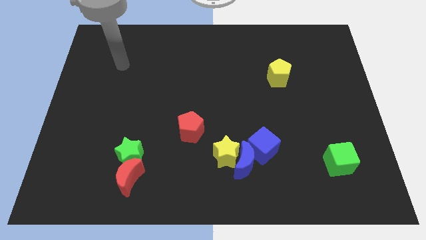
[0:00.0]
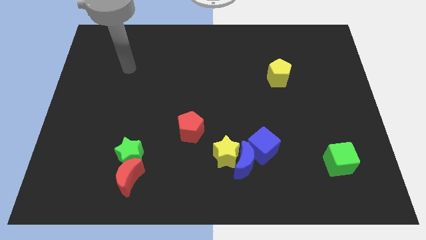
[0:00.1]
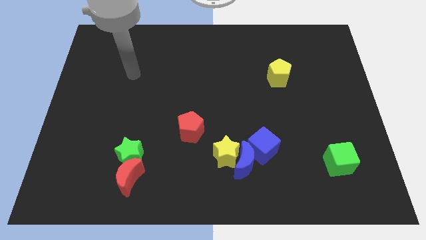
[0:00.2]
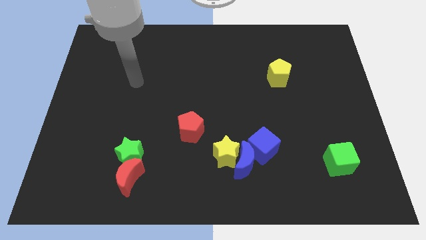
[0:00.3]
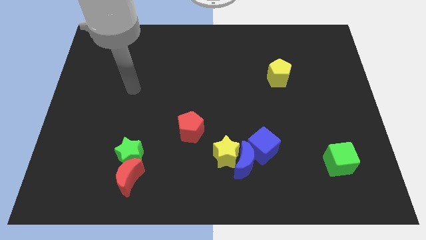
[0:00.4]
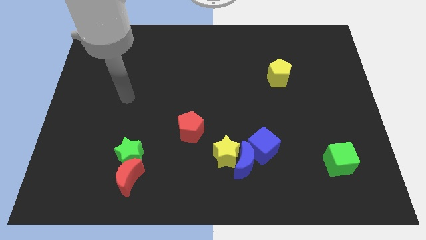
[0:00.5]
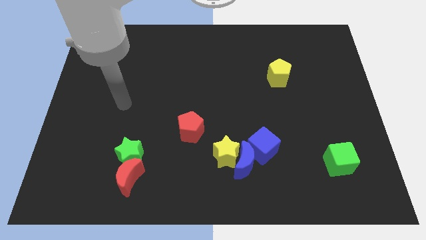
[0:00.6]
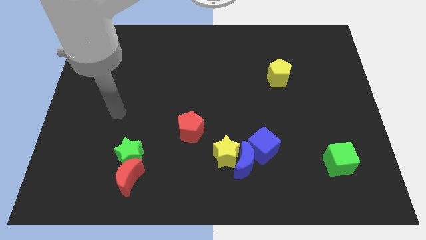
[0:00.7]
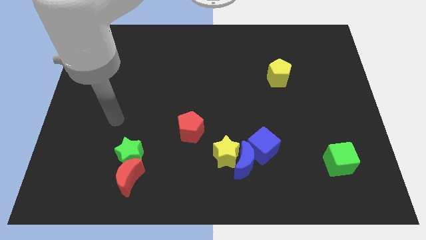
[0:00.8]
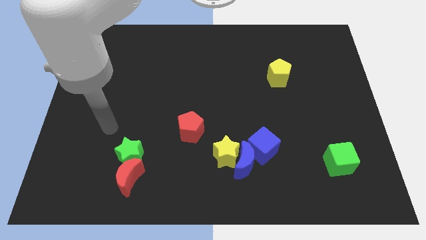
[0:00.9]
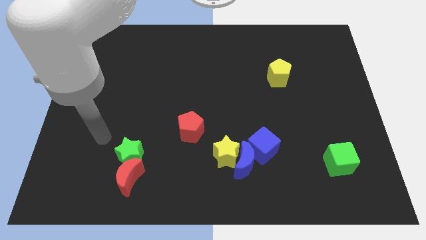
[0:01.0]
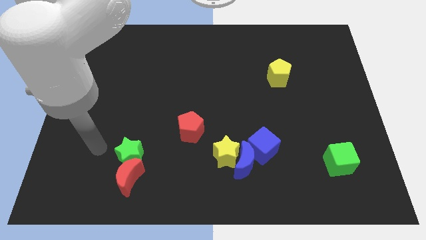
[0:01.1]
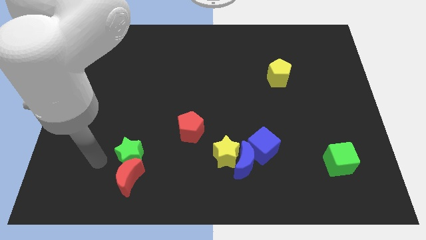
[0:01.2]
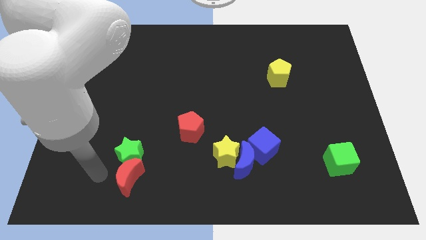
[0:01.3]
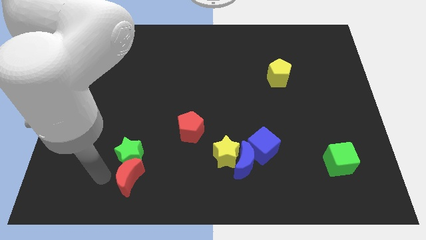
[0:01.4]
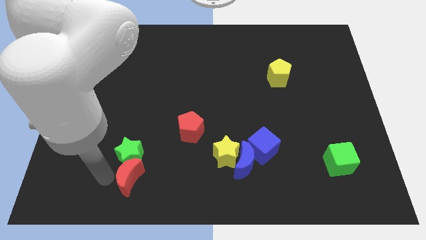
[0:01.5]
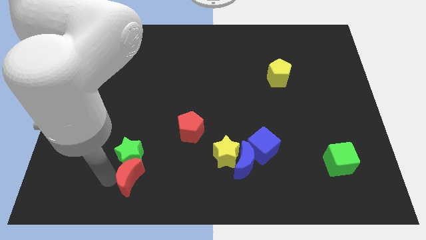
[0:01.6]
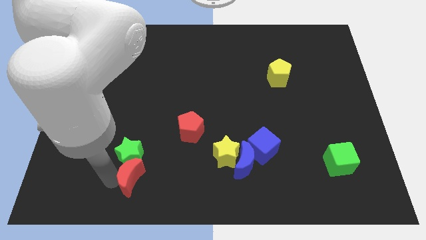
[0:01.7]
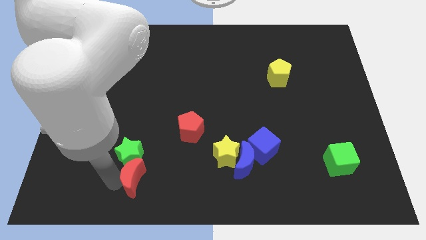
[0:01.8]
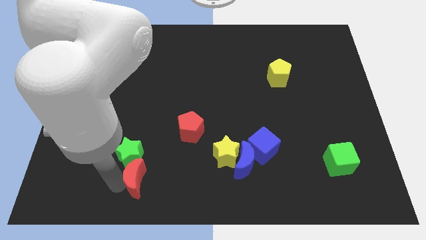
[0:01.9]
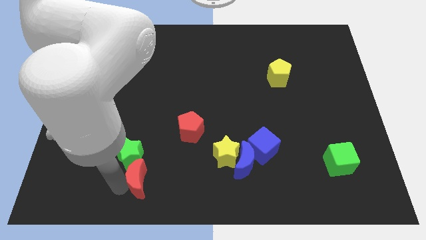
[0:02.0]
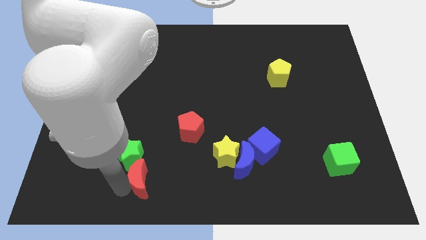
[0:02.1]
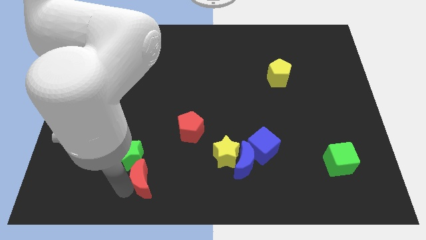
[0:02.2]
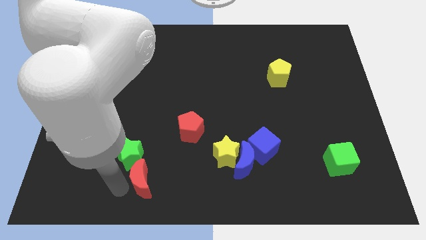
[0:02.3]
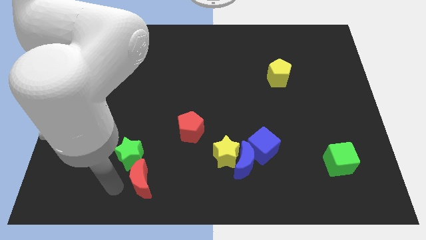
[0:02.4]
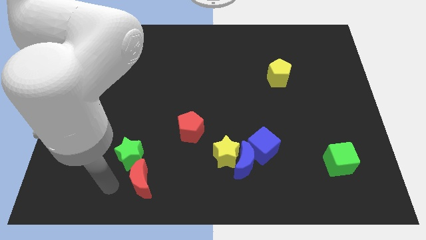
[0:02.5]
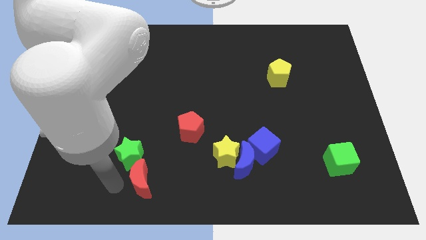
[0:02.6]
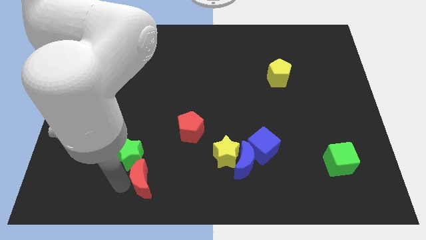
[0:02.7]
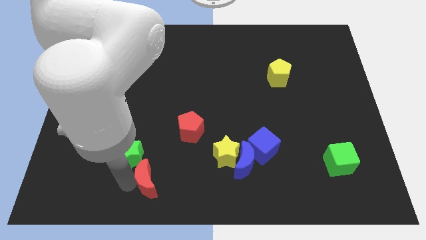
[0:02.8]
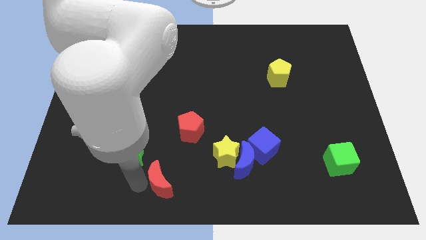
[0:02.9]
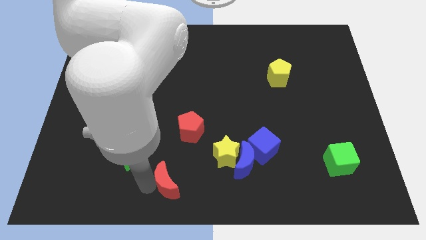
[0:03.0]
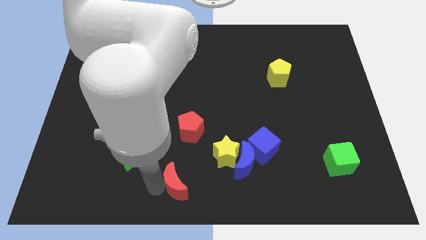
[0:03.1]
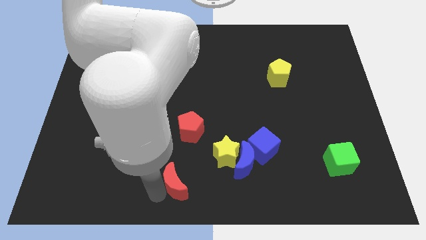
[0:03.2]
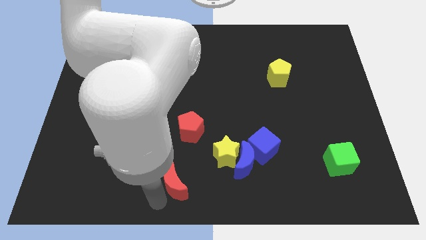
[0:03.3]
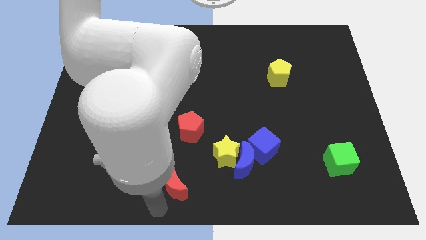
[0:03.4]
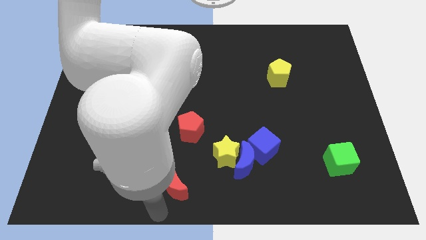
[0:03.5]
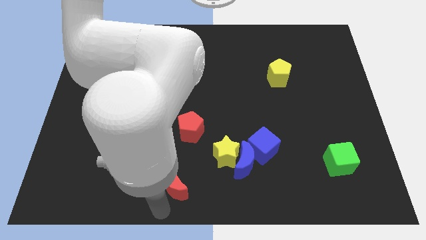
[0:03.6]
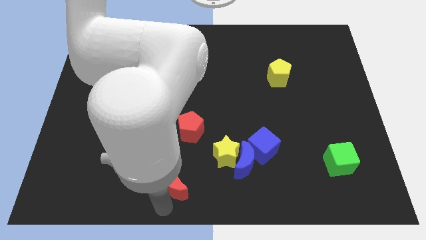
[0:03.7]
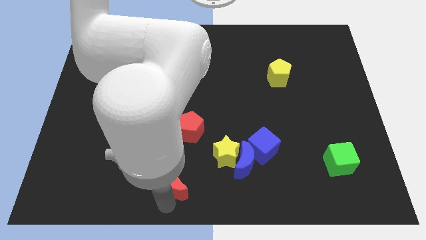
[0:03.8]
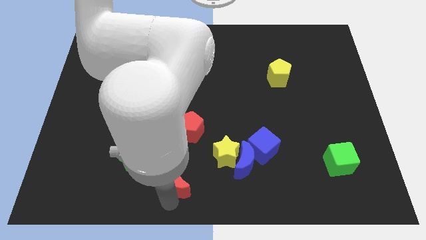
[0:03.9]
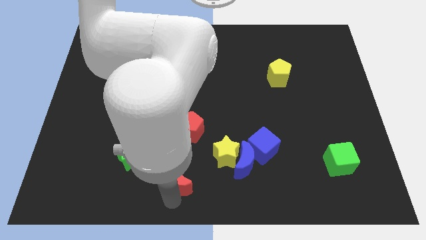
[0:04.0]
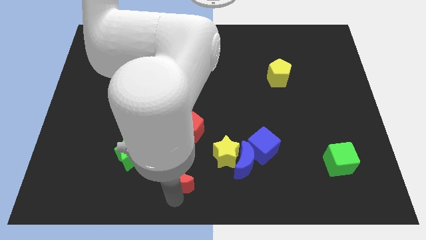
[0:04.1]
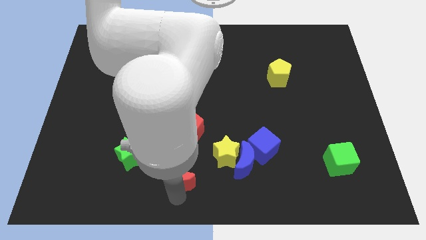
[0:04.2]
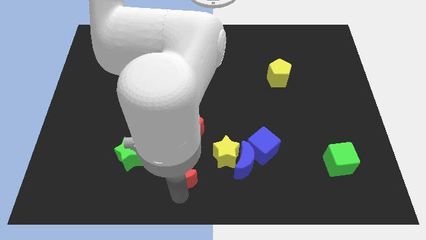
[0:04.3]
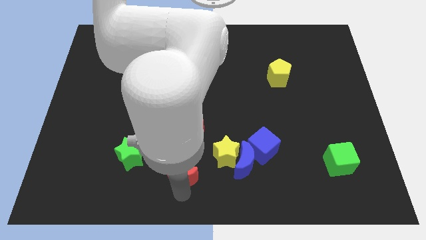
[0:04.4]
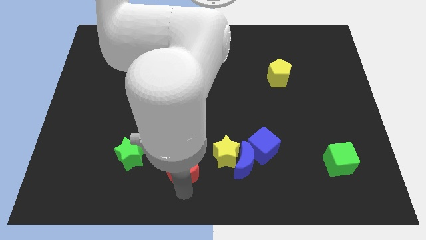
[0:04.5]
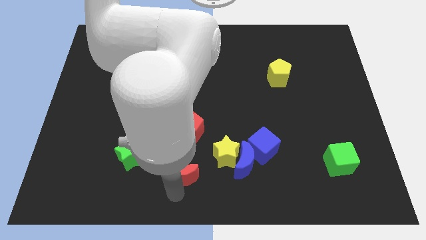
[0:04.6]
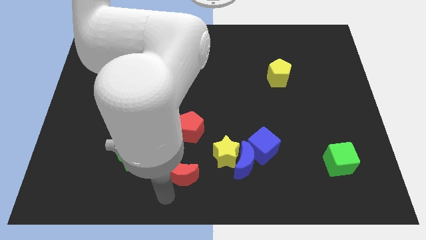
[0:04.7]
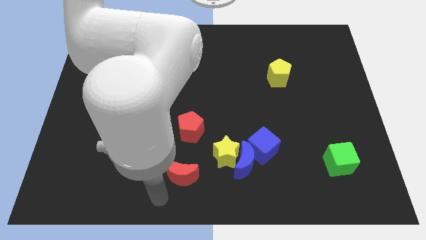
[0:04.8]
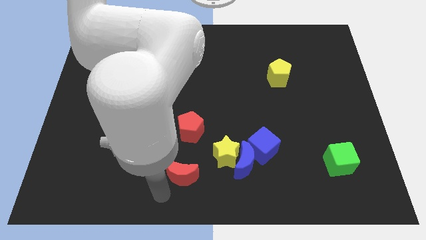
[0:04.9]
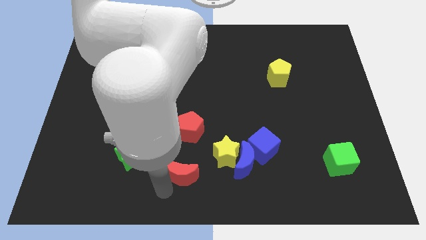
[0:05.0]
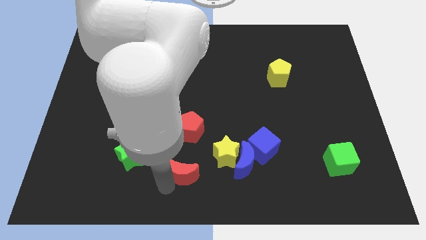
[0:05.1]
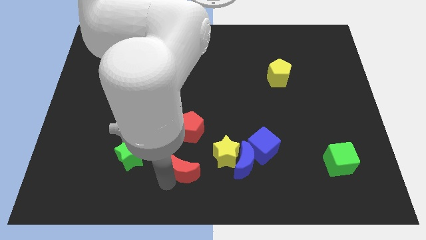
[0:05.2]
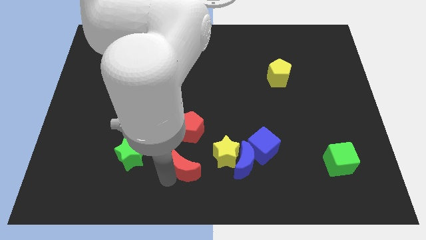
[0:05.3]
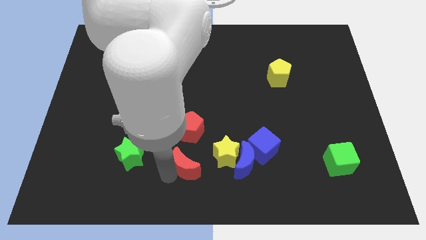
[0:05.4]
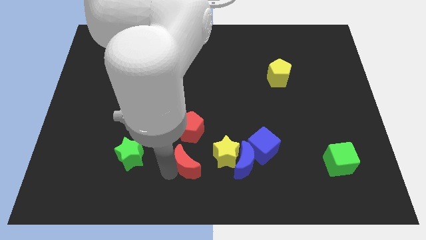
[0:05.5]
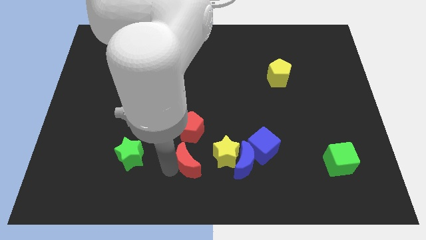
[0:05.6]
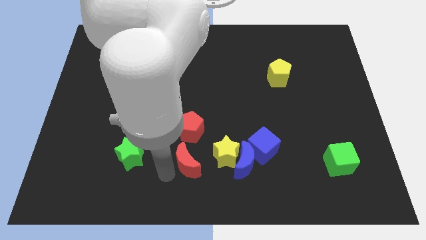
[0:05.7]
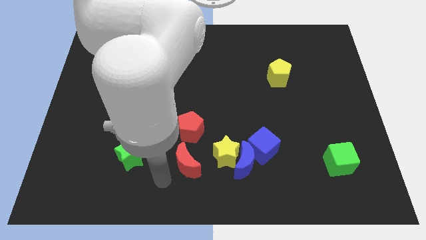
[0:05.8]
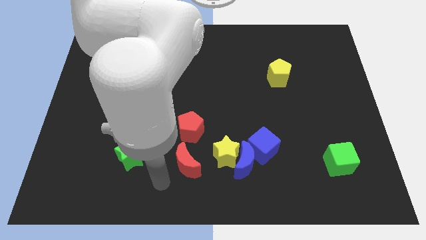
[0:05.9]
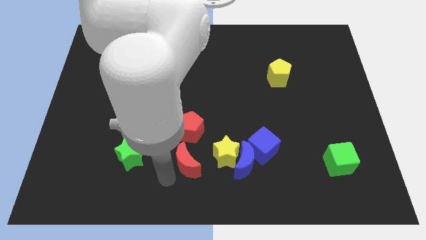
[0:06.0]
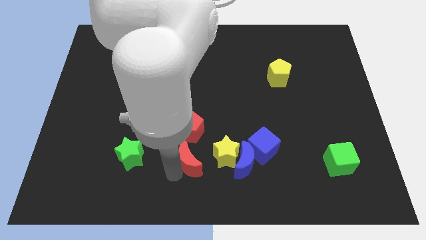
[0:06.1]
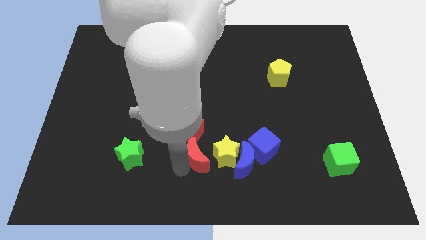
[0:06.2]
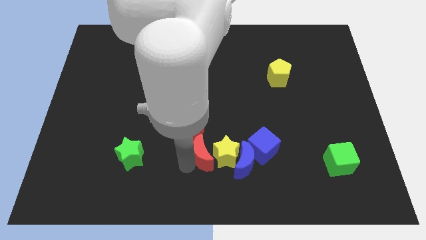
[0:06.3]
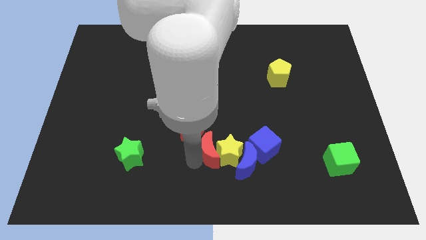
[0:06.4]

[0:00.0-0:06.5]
put the red moon diagonally up and to the left of the blue moon

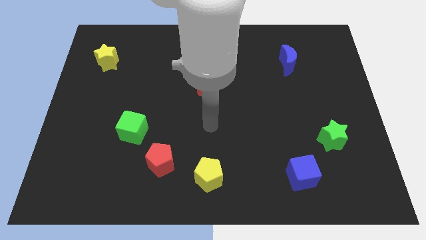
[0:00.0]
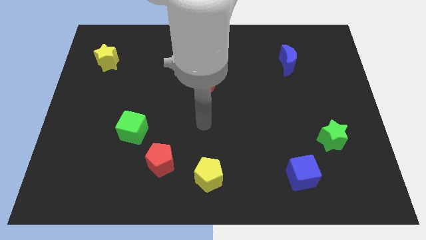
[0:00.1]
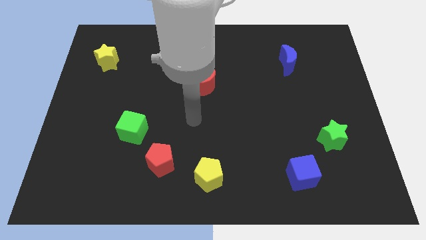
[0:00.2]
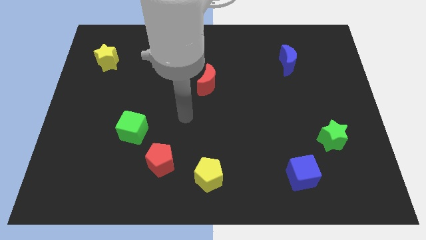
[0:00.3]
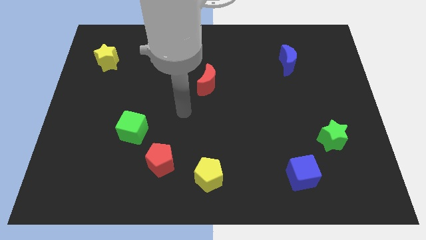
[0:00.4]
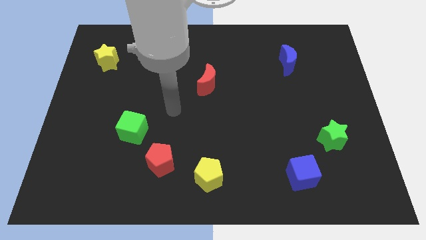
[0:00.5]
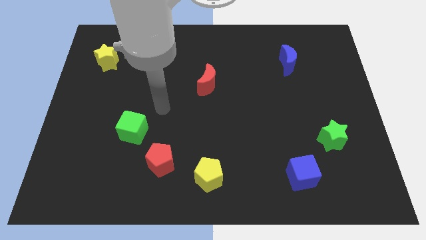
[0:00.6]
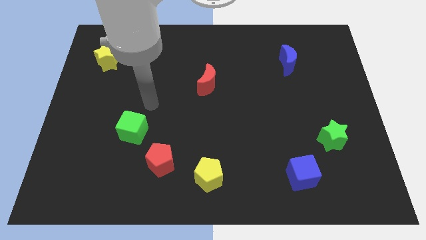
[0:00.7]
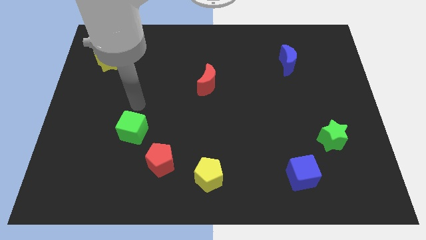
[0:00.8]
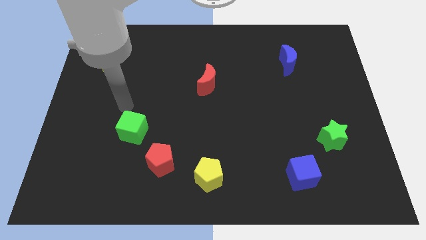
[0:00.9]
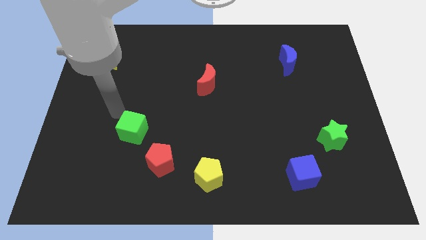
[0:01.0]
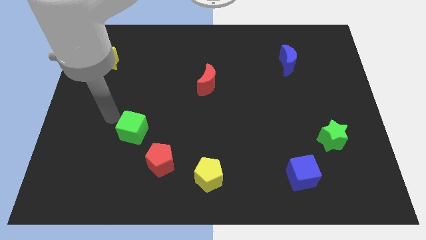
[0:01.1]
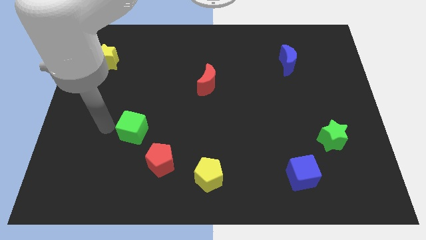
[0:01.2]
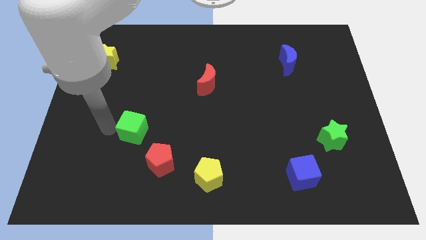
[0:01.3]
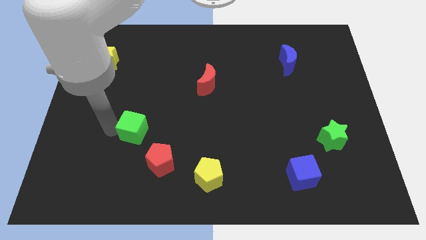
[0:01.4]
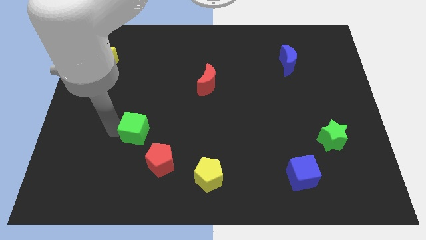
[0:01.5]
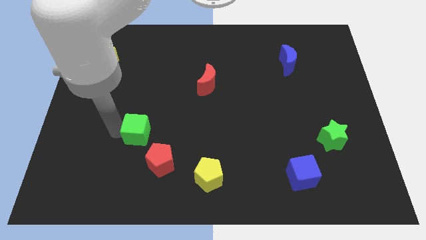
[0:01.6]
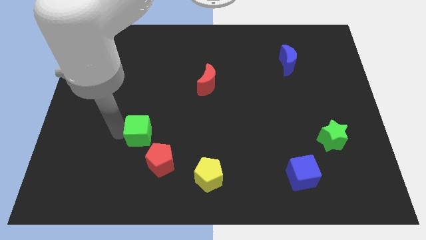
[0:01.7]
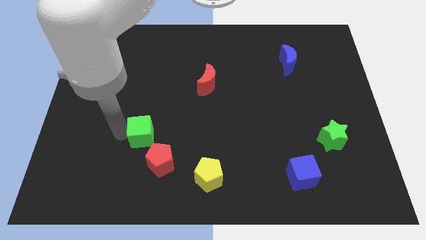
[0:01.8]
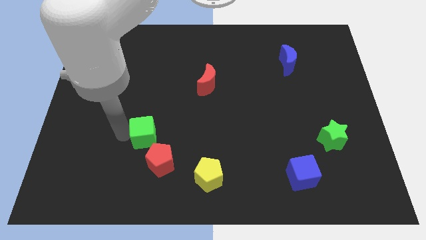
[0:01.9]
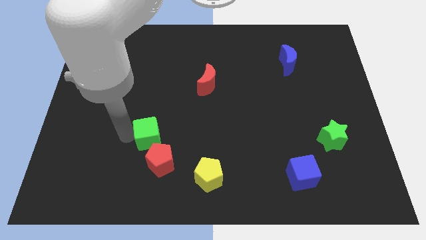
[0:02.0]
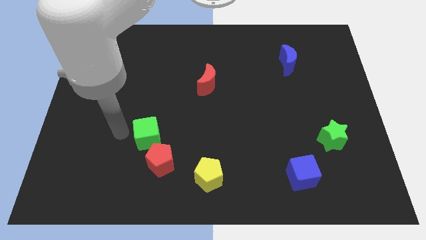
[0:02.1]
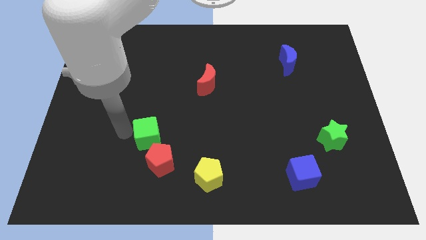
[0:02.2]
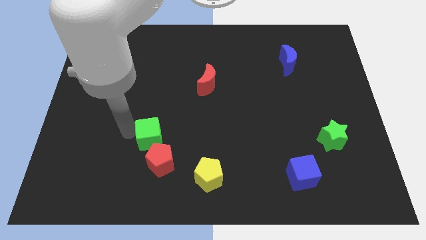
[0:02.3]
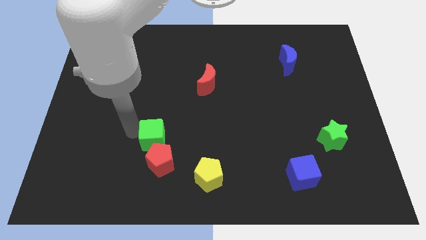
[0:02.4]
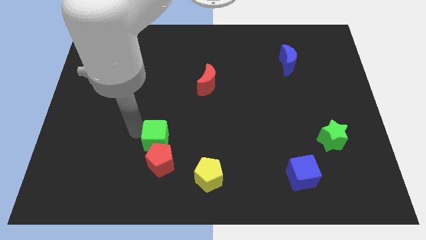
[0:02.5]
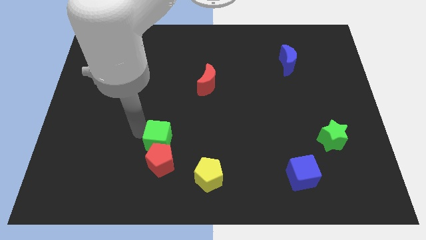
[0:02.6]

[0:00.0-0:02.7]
move the green cube diagonally up and to the right of the red pentagon
